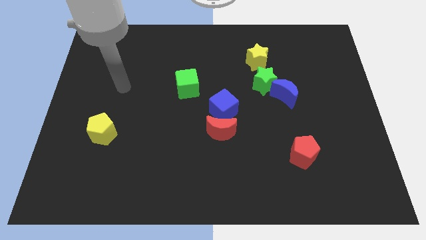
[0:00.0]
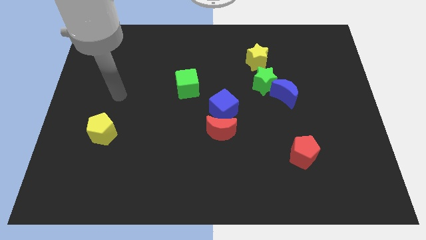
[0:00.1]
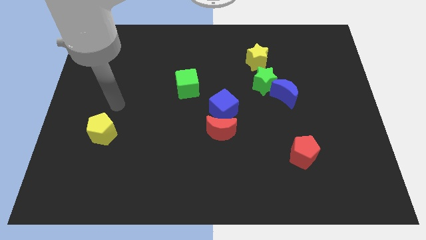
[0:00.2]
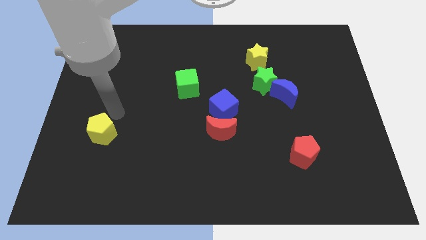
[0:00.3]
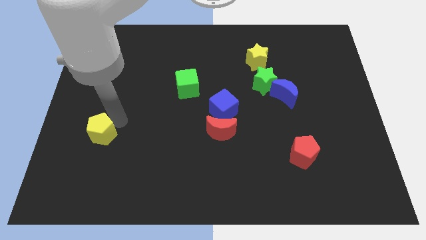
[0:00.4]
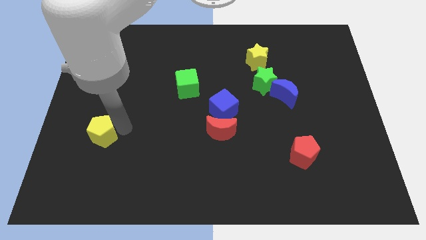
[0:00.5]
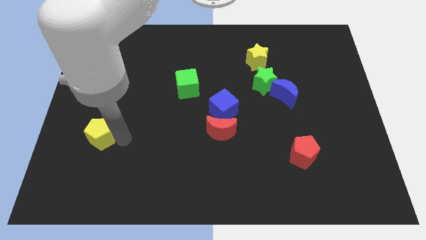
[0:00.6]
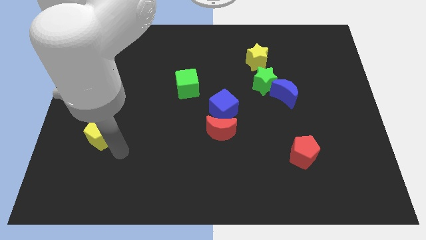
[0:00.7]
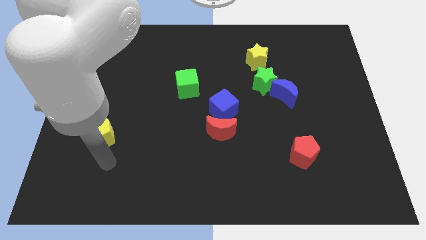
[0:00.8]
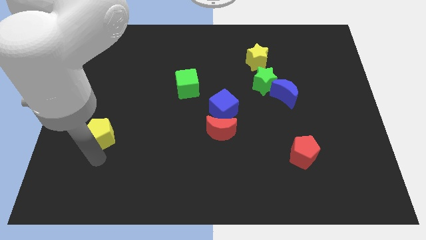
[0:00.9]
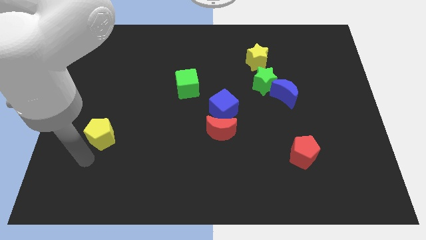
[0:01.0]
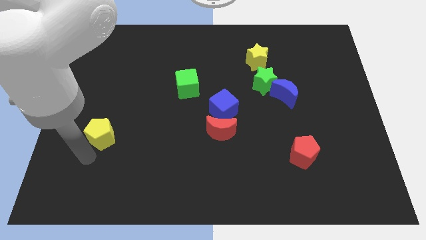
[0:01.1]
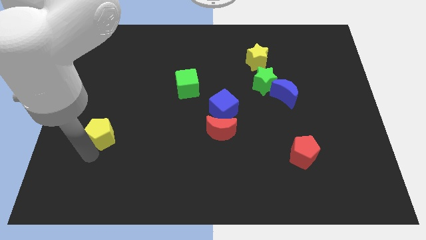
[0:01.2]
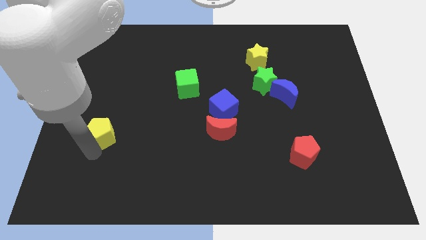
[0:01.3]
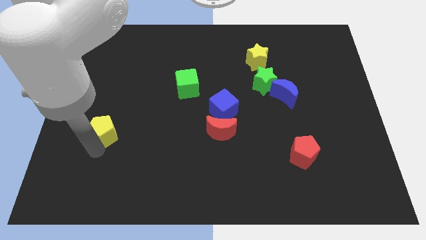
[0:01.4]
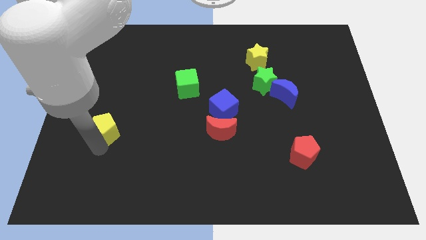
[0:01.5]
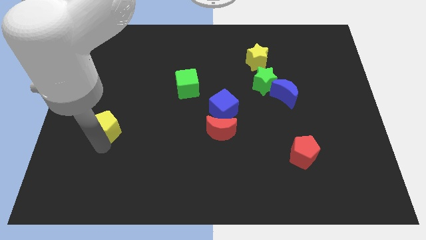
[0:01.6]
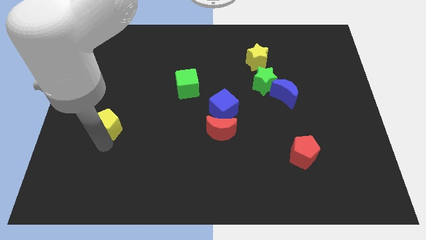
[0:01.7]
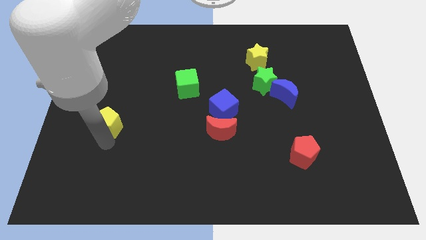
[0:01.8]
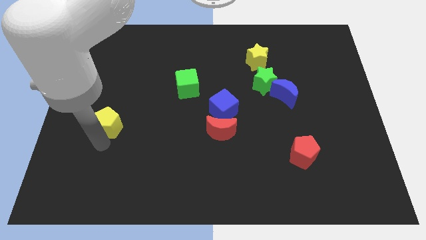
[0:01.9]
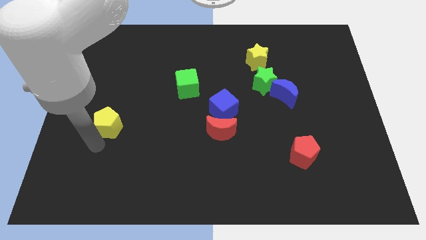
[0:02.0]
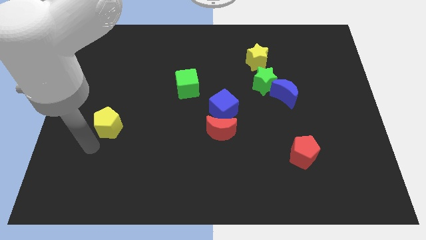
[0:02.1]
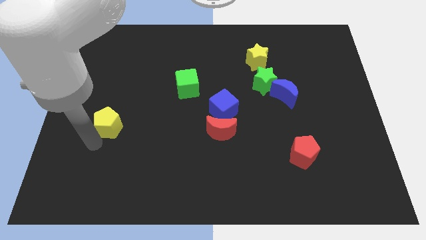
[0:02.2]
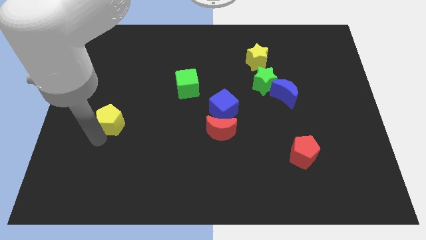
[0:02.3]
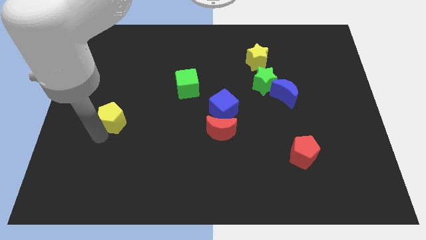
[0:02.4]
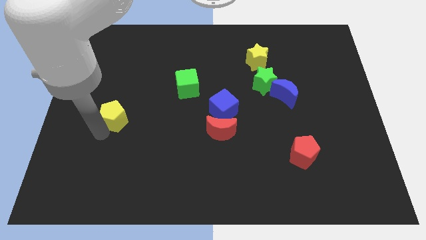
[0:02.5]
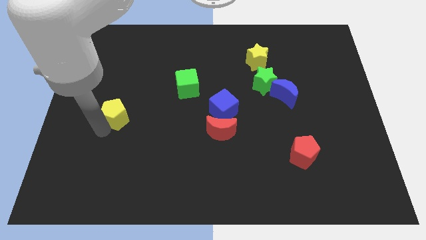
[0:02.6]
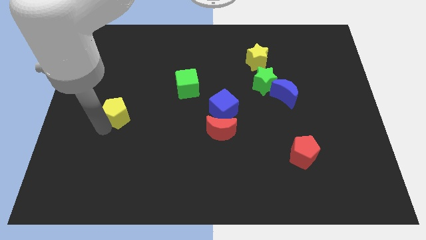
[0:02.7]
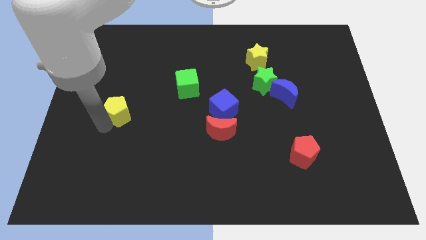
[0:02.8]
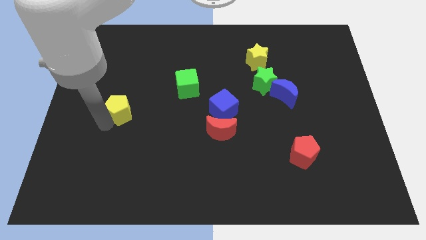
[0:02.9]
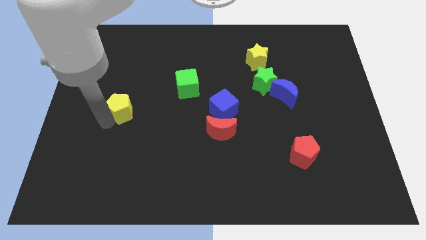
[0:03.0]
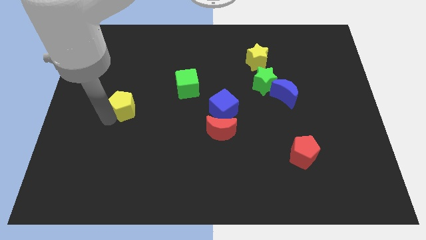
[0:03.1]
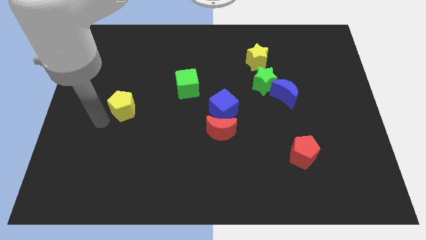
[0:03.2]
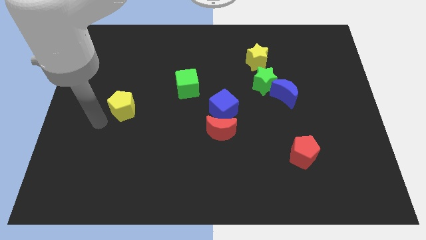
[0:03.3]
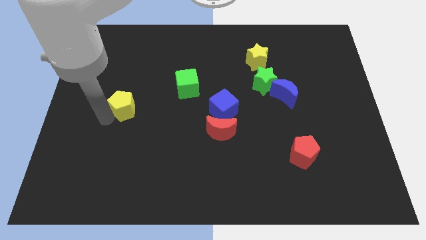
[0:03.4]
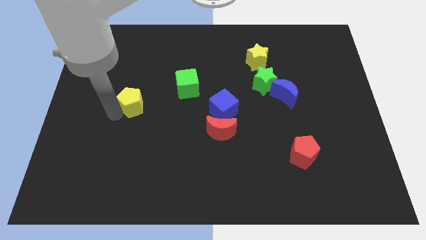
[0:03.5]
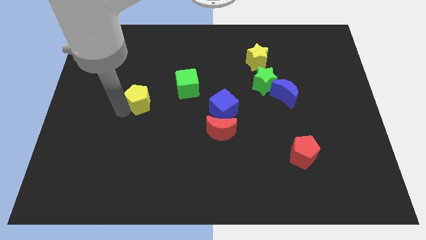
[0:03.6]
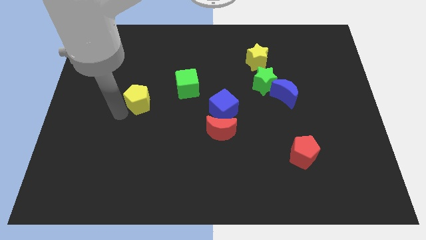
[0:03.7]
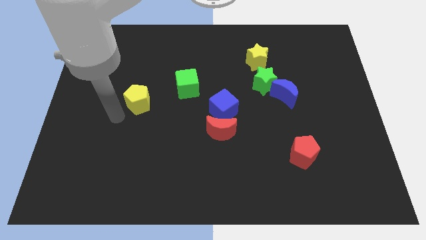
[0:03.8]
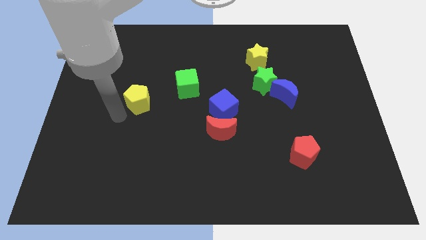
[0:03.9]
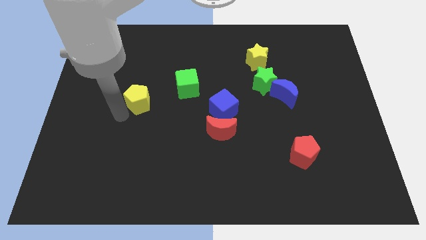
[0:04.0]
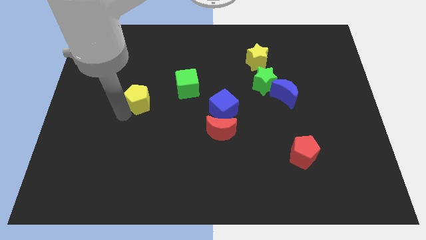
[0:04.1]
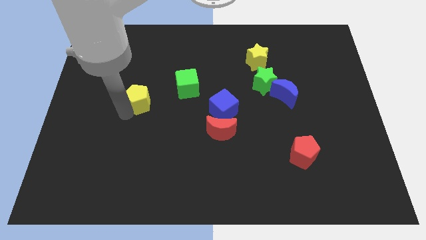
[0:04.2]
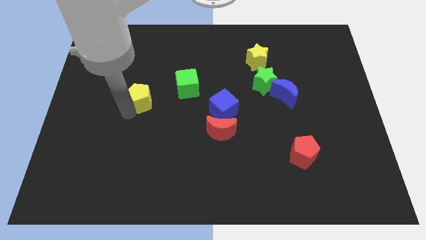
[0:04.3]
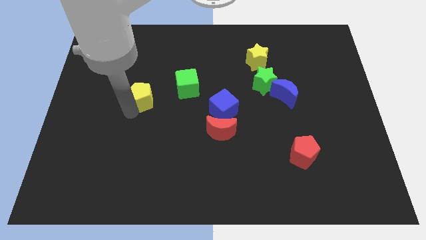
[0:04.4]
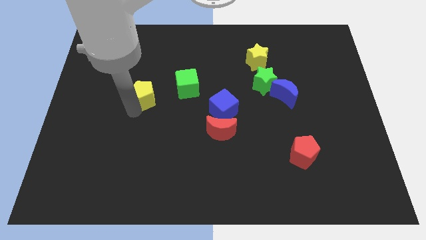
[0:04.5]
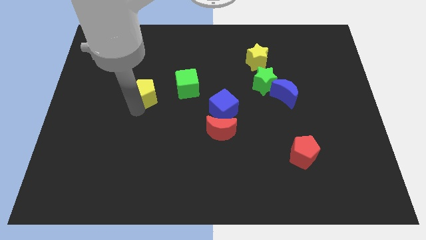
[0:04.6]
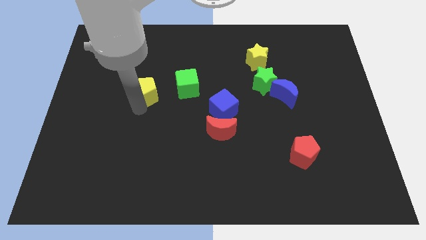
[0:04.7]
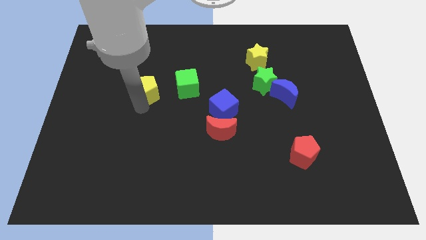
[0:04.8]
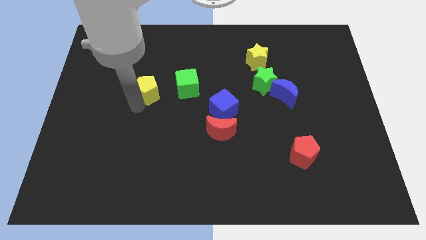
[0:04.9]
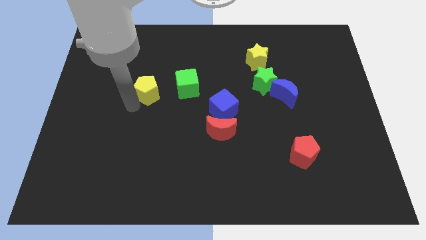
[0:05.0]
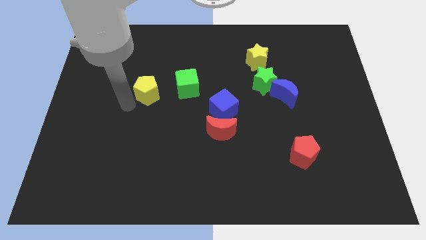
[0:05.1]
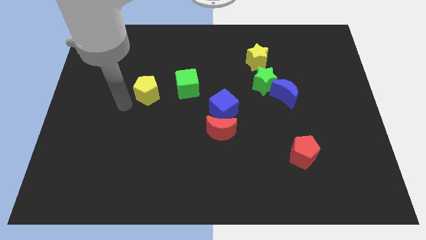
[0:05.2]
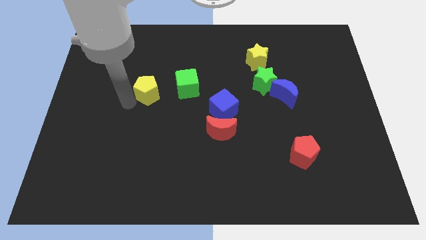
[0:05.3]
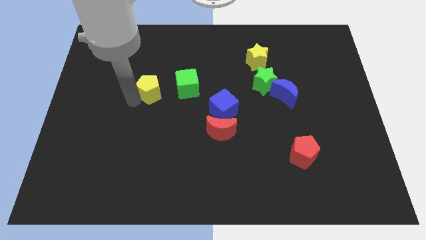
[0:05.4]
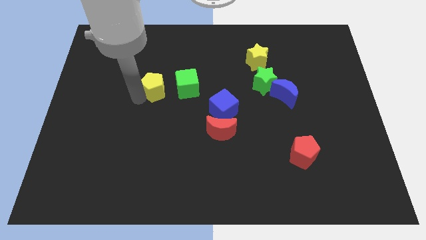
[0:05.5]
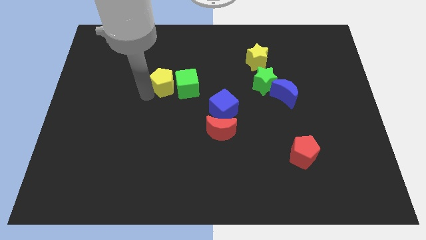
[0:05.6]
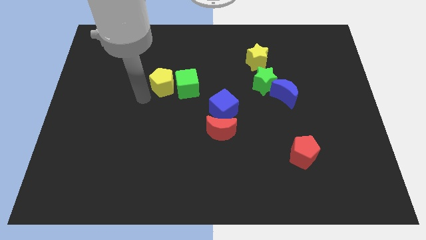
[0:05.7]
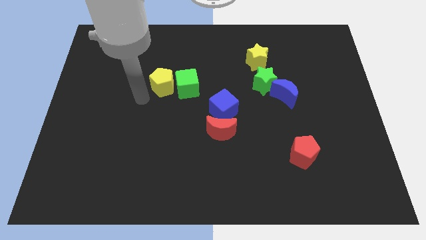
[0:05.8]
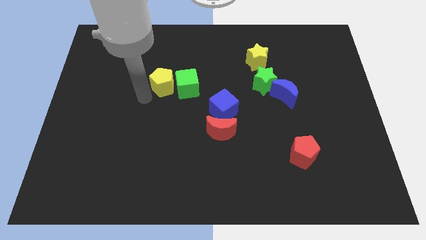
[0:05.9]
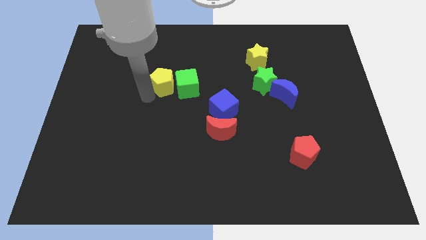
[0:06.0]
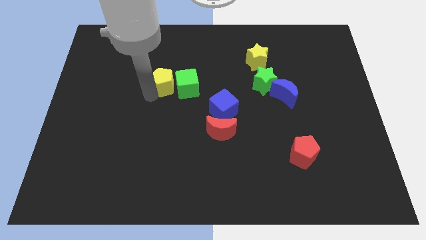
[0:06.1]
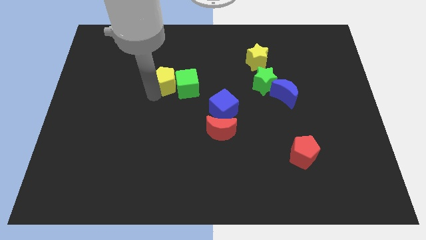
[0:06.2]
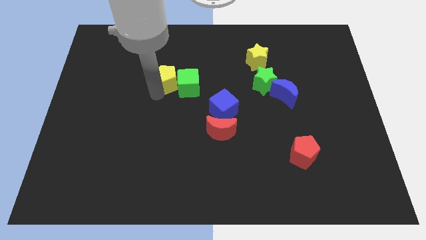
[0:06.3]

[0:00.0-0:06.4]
push the yellow pentagon upwards and to the right diagonally

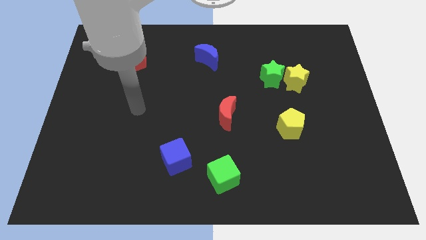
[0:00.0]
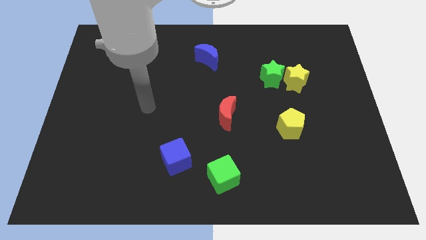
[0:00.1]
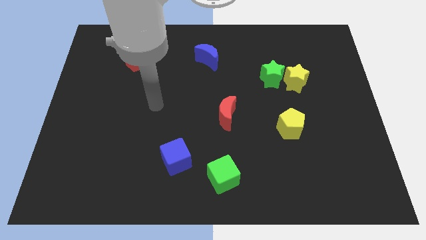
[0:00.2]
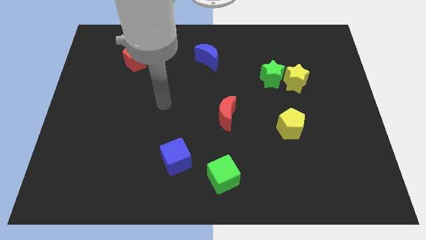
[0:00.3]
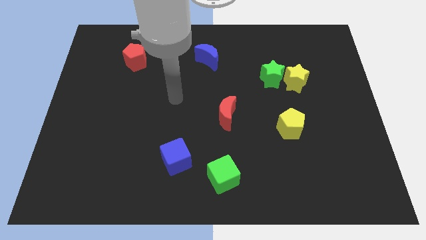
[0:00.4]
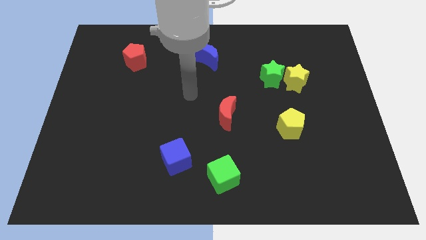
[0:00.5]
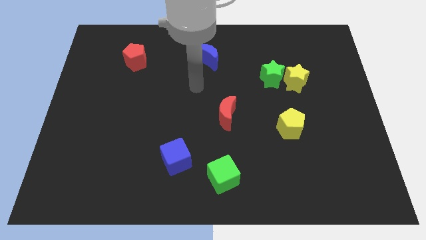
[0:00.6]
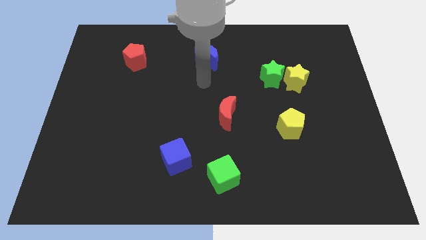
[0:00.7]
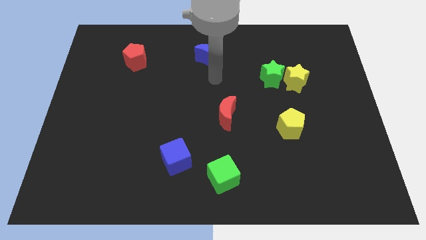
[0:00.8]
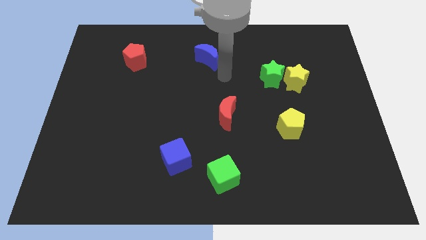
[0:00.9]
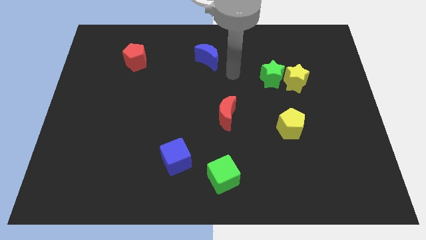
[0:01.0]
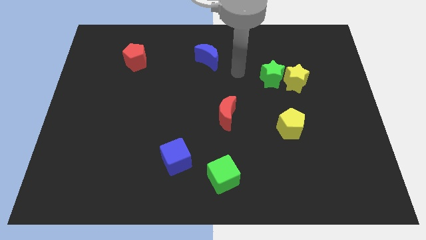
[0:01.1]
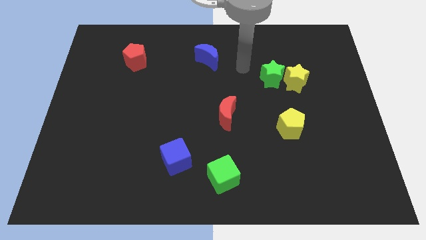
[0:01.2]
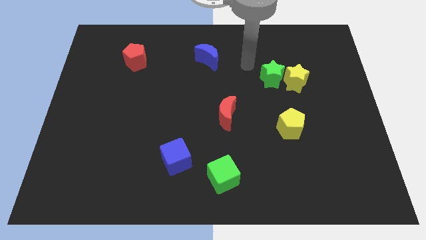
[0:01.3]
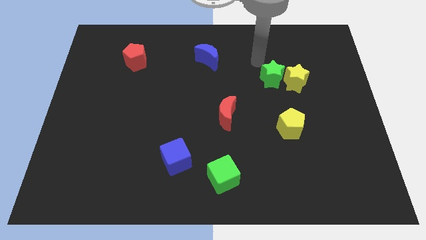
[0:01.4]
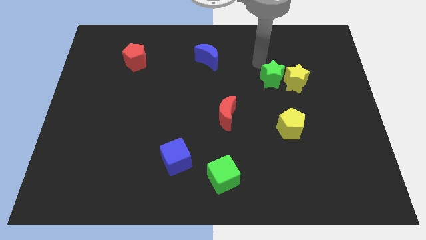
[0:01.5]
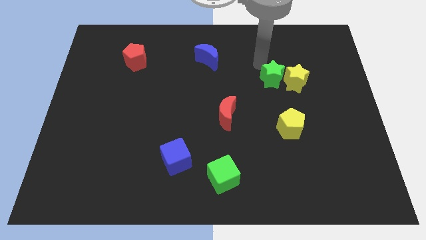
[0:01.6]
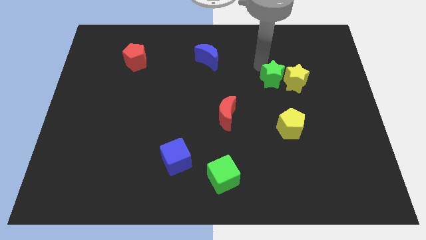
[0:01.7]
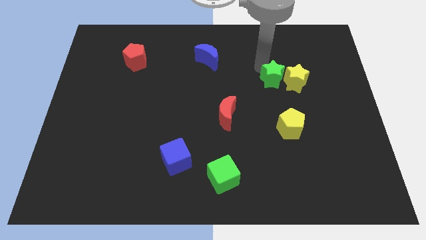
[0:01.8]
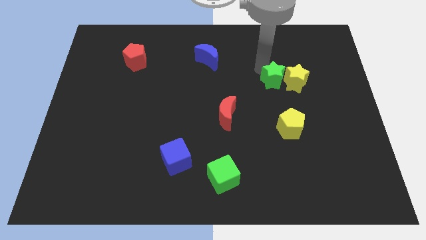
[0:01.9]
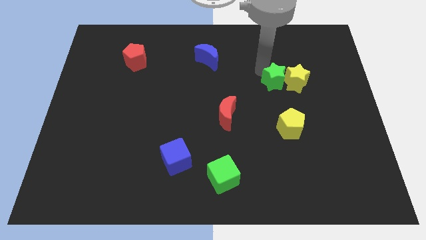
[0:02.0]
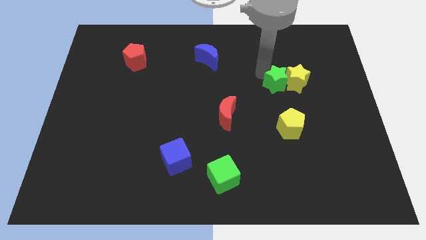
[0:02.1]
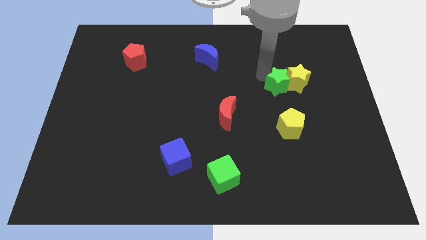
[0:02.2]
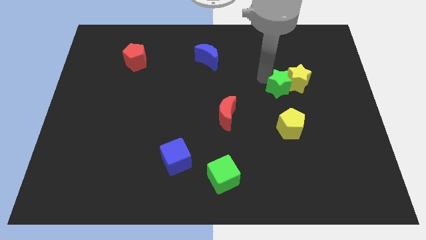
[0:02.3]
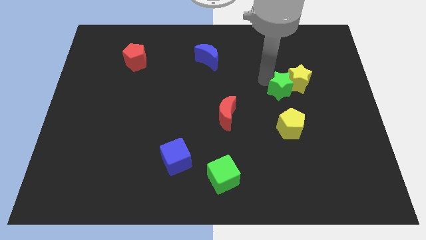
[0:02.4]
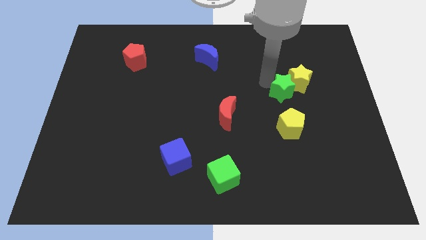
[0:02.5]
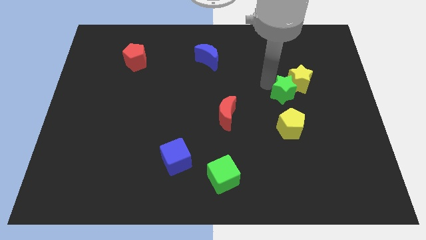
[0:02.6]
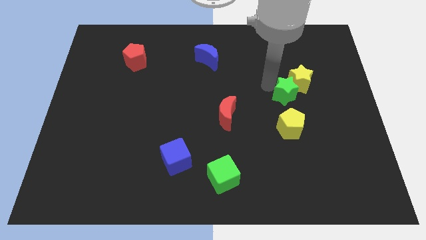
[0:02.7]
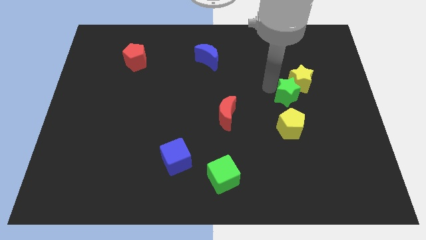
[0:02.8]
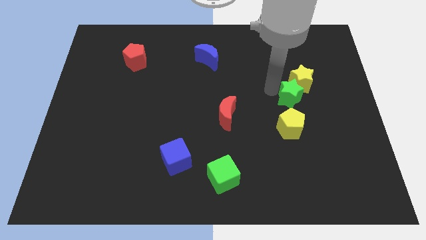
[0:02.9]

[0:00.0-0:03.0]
slightly slide the green star down and then to the right
